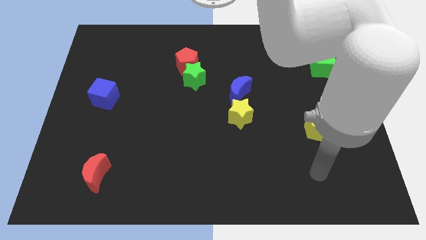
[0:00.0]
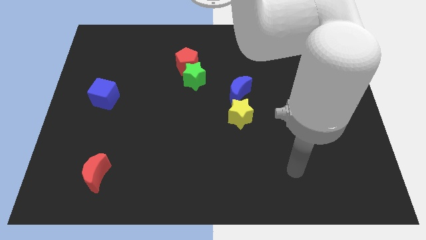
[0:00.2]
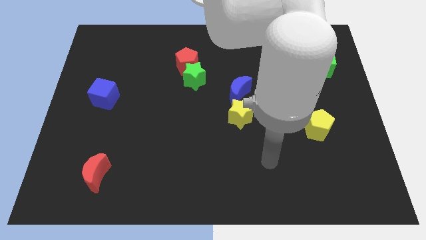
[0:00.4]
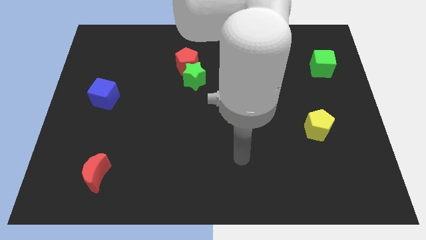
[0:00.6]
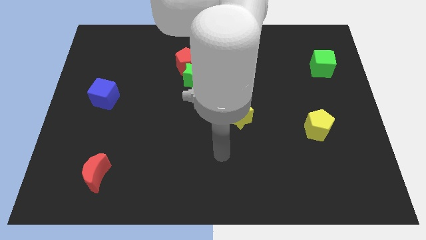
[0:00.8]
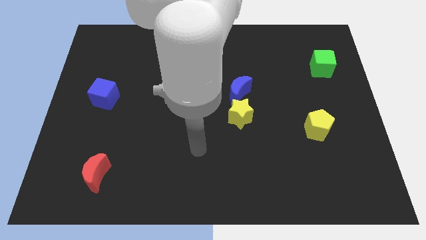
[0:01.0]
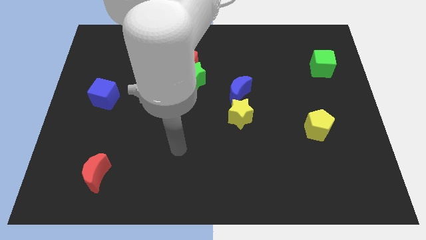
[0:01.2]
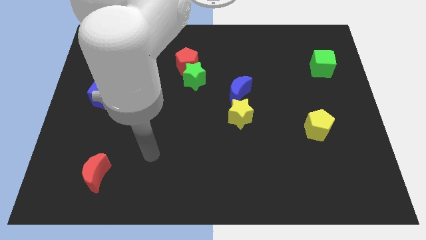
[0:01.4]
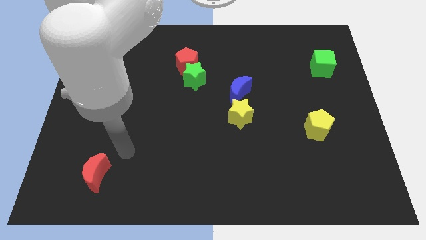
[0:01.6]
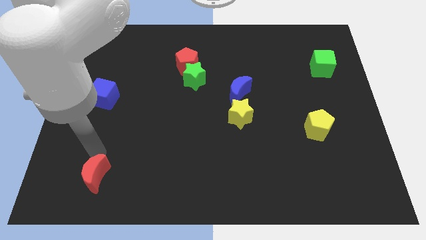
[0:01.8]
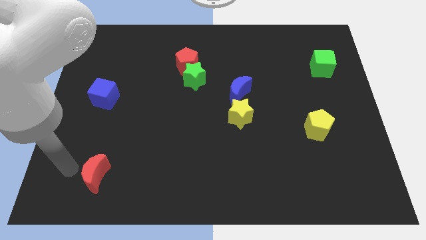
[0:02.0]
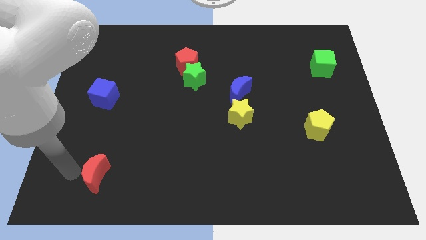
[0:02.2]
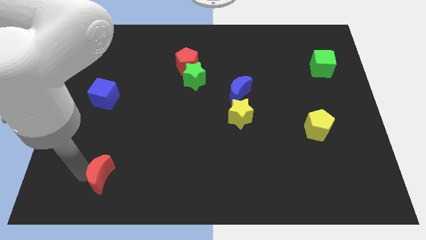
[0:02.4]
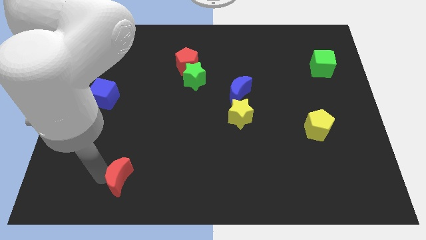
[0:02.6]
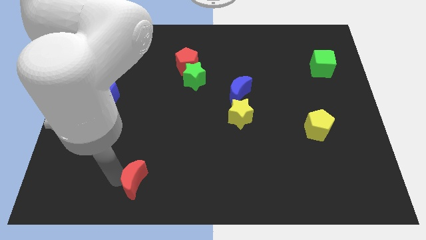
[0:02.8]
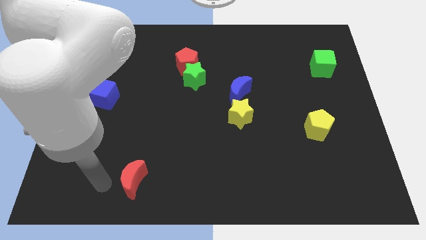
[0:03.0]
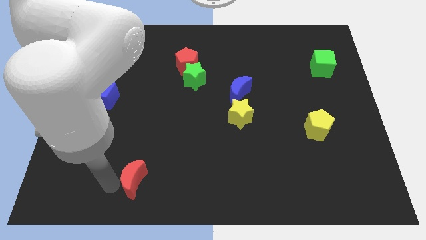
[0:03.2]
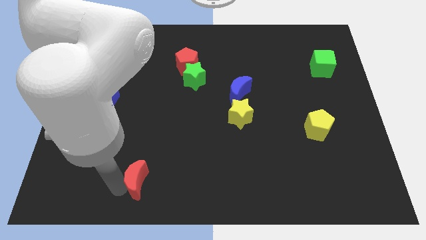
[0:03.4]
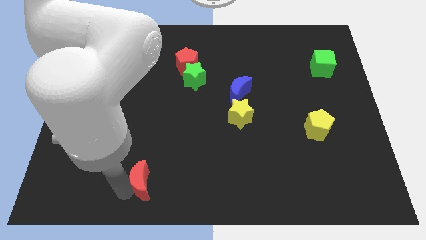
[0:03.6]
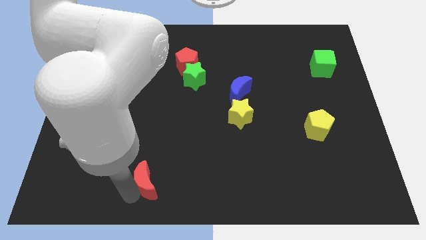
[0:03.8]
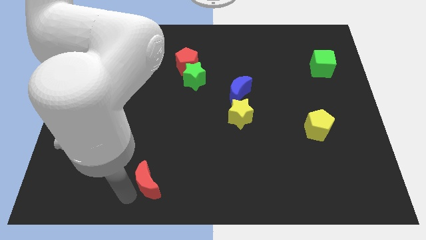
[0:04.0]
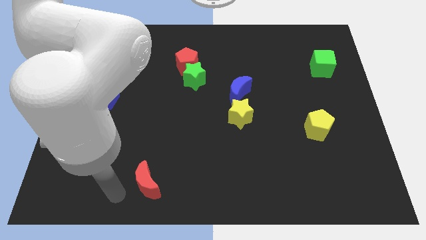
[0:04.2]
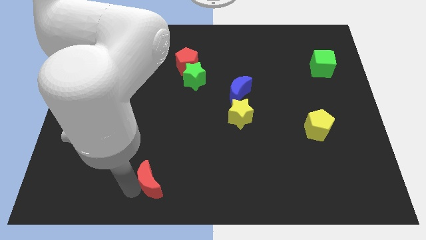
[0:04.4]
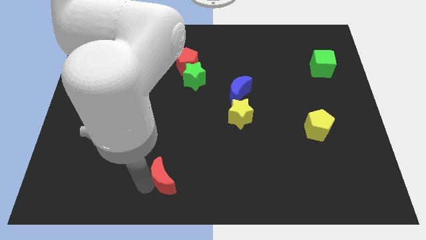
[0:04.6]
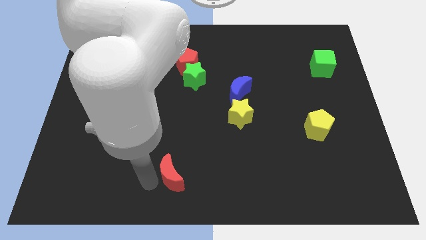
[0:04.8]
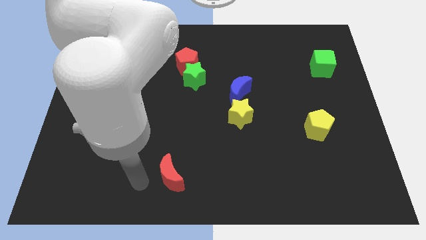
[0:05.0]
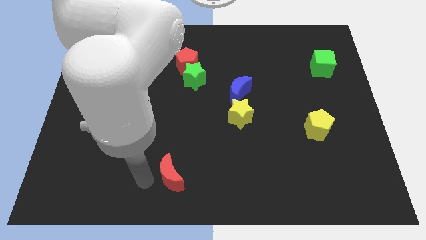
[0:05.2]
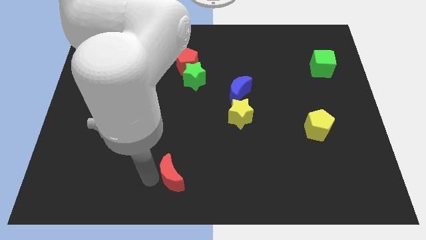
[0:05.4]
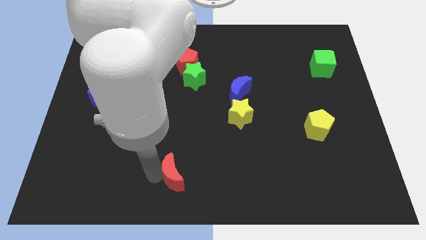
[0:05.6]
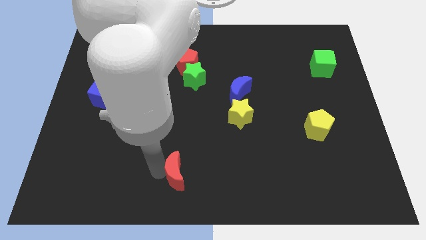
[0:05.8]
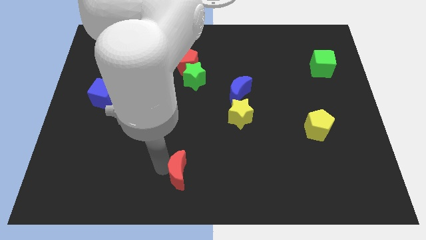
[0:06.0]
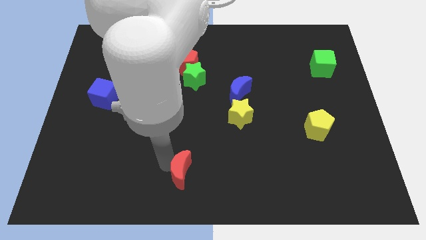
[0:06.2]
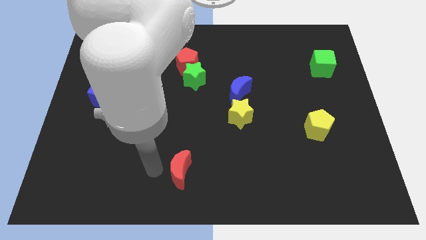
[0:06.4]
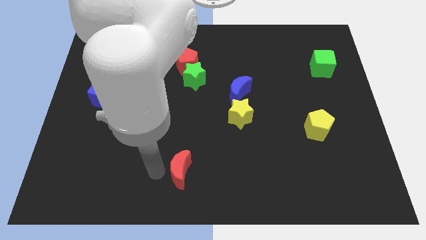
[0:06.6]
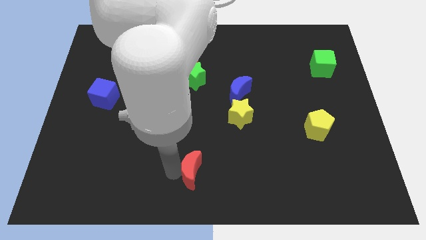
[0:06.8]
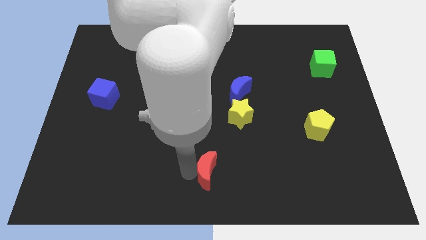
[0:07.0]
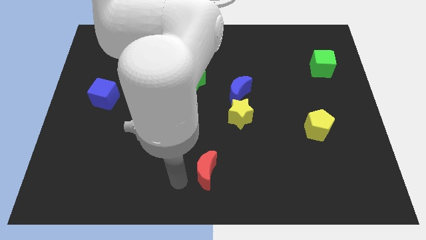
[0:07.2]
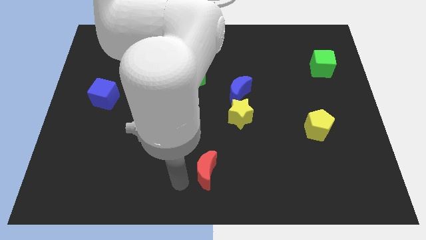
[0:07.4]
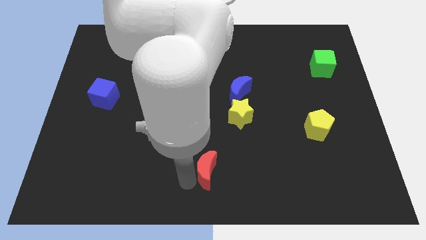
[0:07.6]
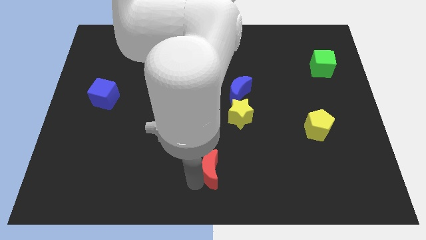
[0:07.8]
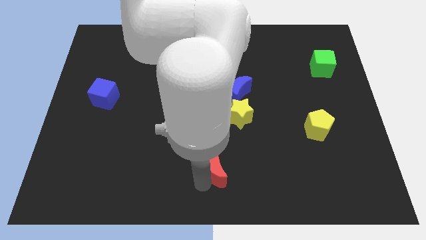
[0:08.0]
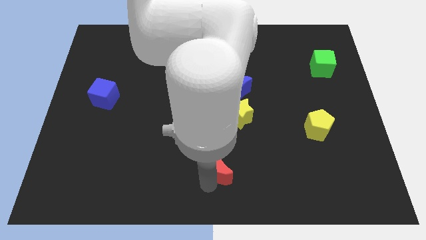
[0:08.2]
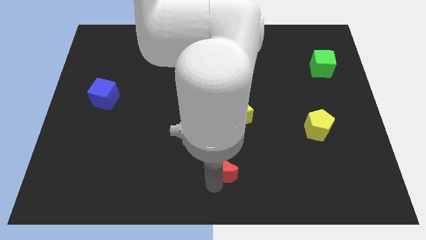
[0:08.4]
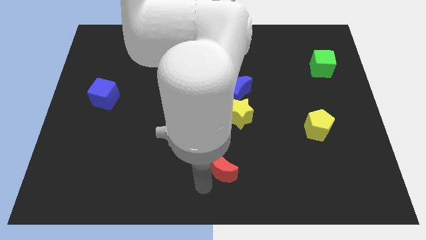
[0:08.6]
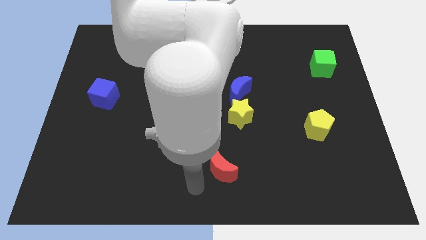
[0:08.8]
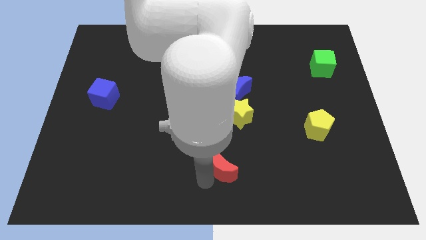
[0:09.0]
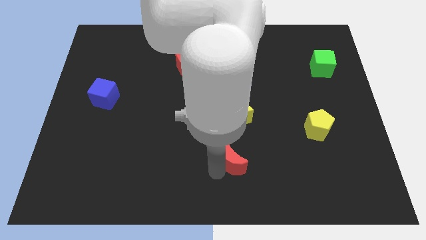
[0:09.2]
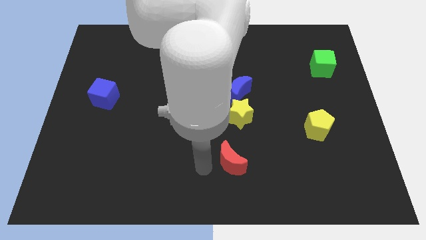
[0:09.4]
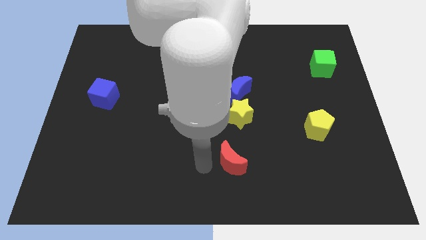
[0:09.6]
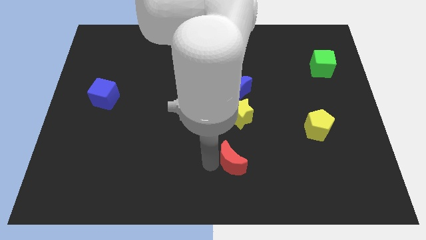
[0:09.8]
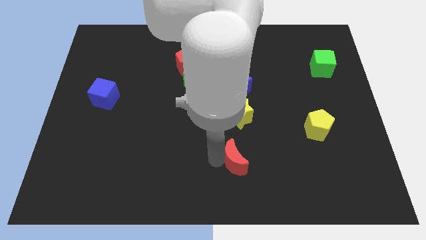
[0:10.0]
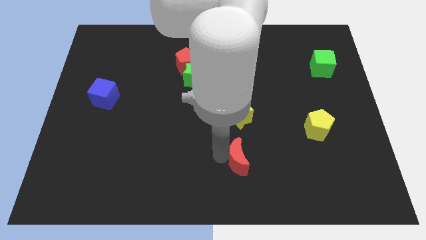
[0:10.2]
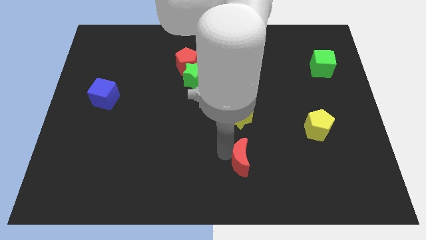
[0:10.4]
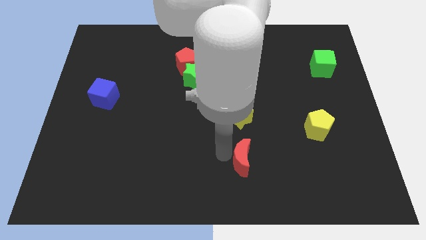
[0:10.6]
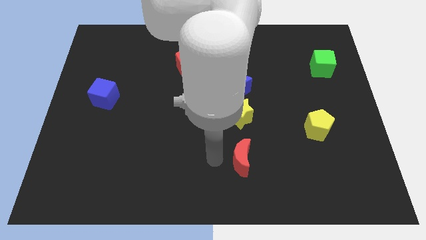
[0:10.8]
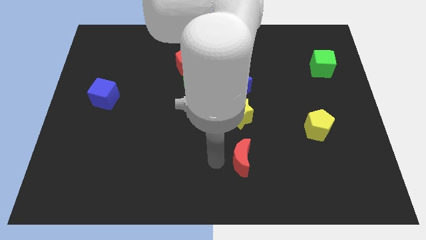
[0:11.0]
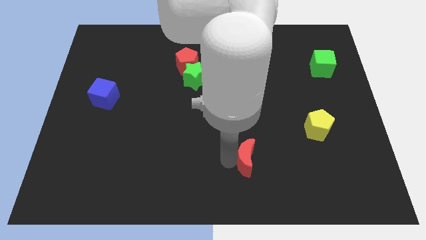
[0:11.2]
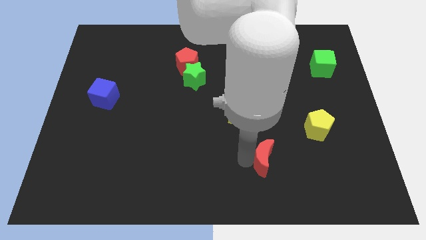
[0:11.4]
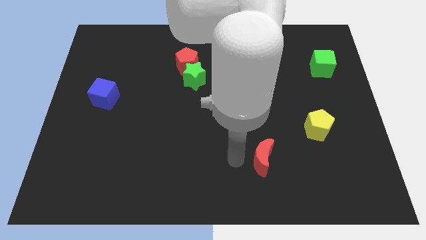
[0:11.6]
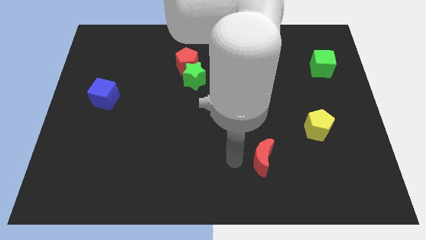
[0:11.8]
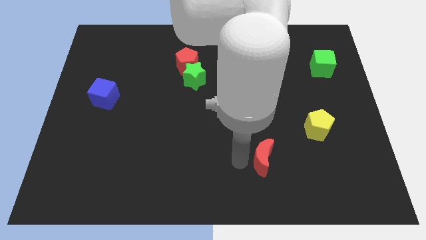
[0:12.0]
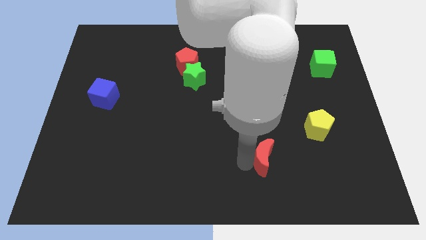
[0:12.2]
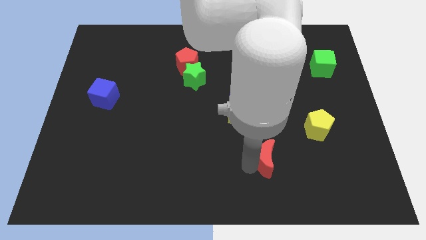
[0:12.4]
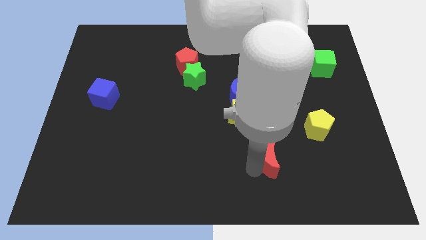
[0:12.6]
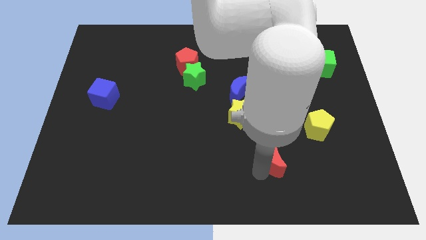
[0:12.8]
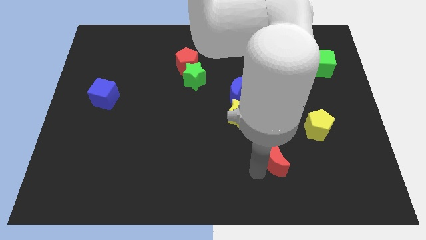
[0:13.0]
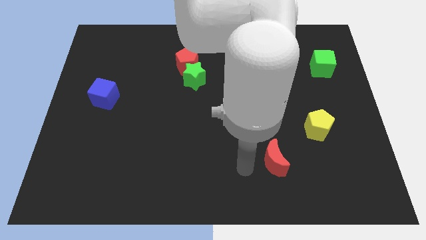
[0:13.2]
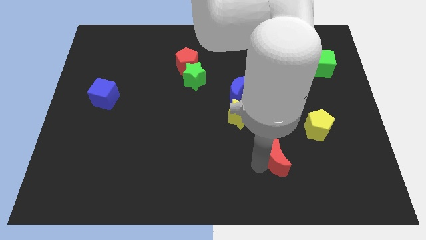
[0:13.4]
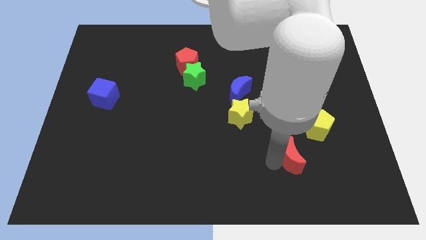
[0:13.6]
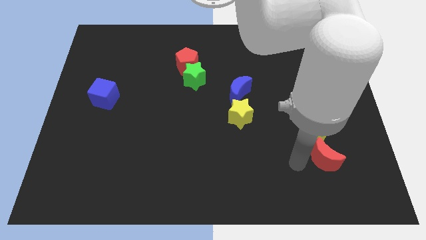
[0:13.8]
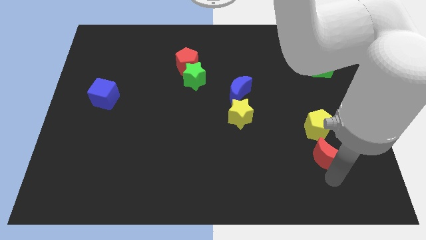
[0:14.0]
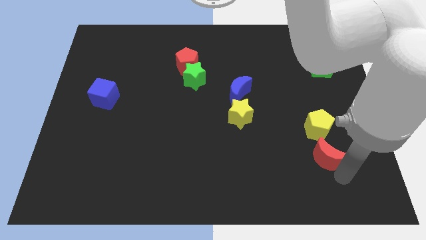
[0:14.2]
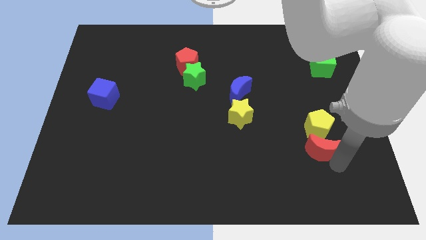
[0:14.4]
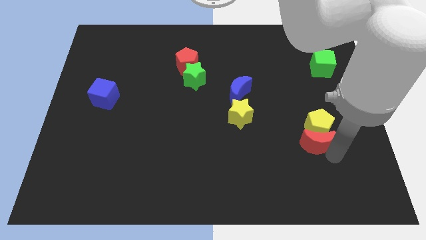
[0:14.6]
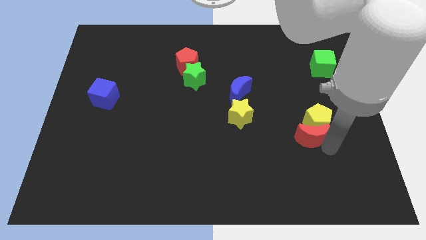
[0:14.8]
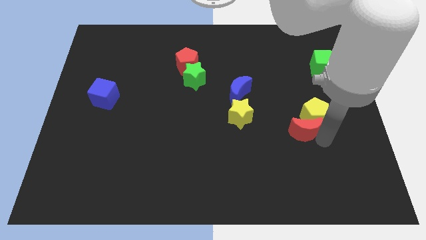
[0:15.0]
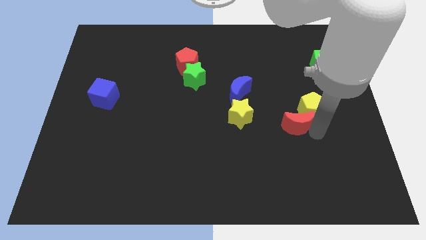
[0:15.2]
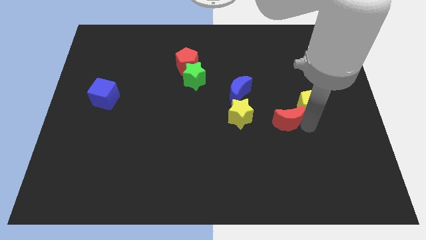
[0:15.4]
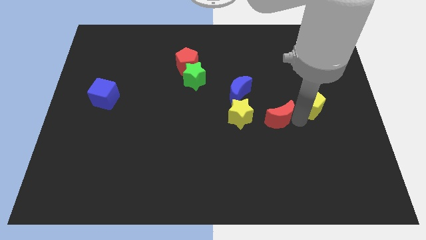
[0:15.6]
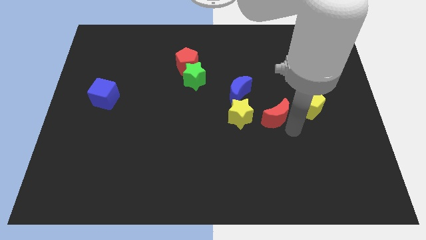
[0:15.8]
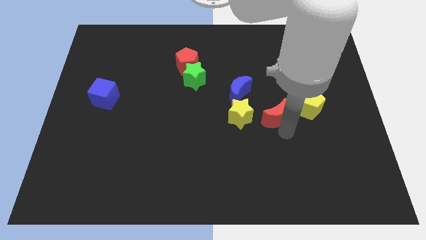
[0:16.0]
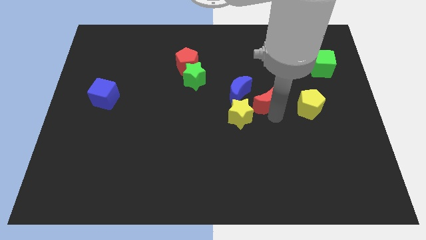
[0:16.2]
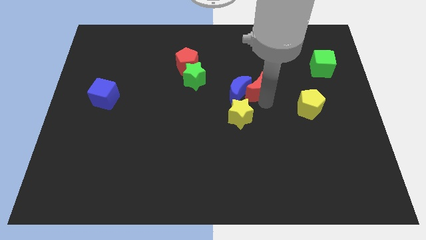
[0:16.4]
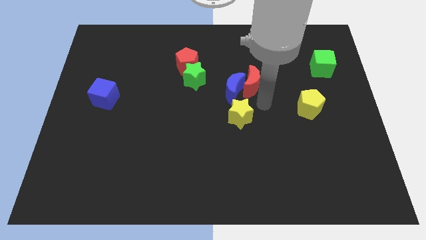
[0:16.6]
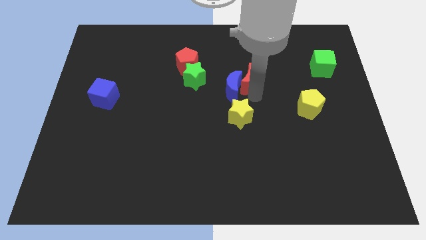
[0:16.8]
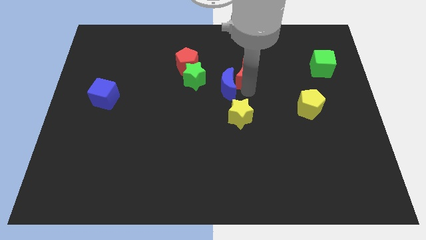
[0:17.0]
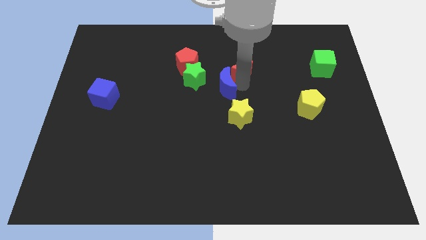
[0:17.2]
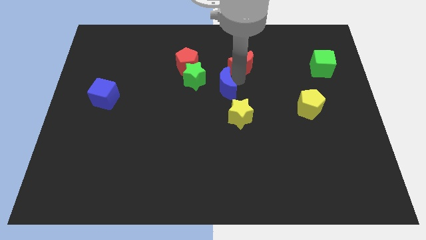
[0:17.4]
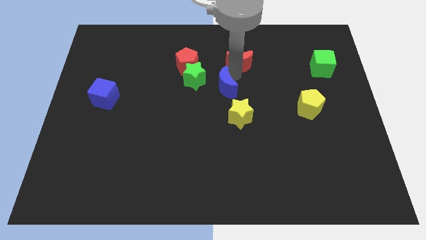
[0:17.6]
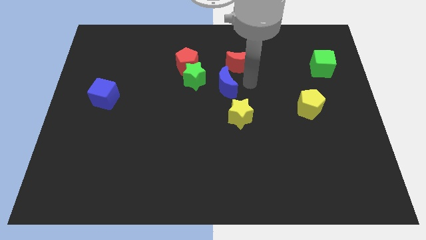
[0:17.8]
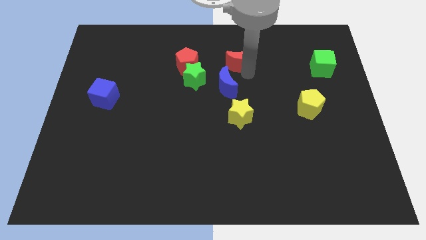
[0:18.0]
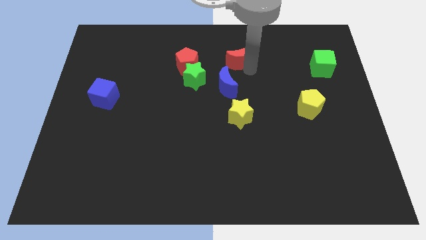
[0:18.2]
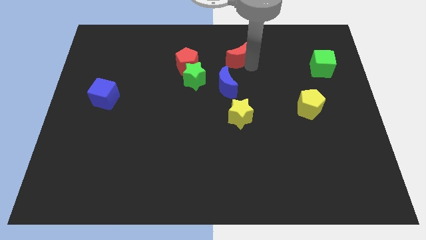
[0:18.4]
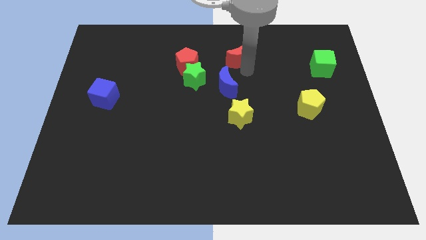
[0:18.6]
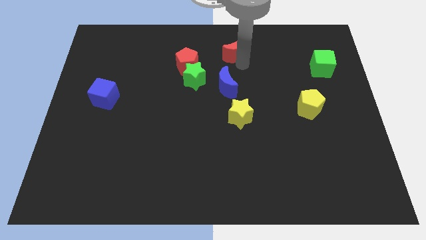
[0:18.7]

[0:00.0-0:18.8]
slide the red moon to the top side
